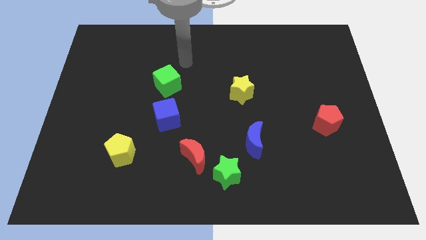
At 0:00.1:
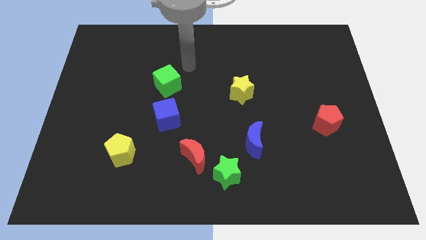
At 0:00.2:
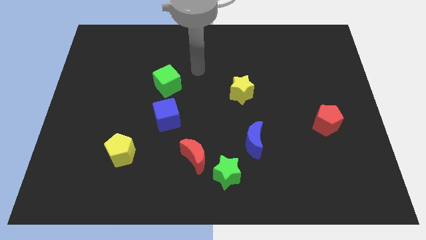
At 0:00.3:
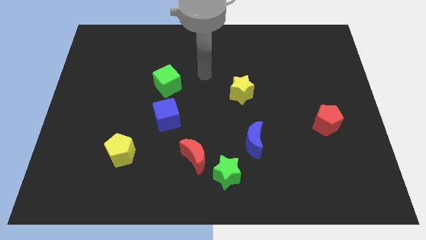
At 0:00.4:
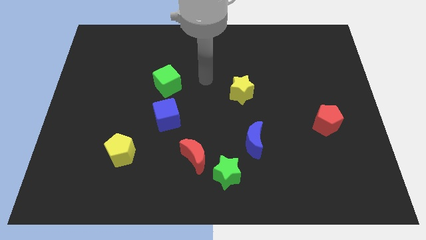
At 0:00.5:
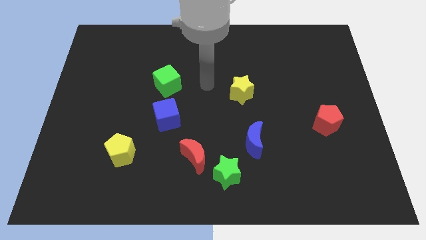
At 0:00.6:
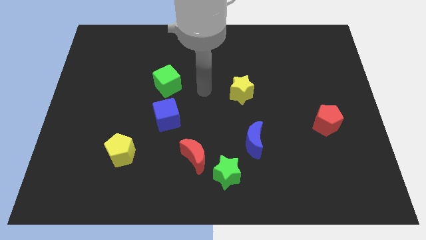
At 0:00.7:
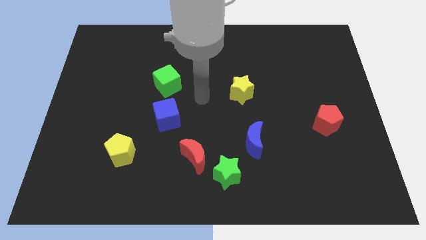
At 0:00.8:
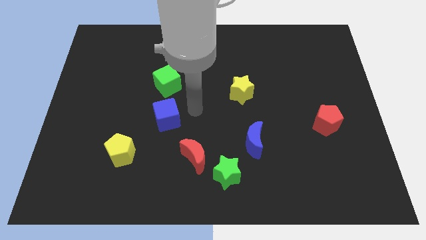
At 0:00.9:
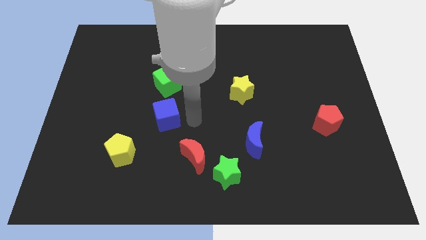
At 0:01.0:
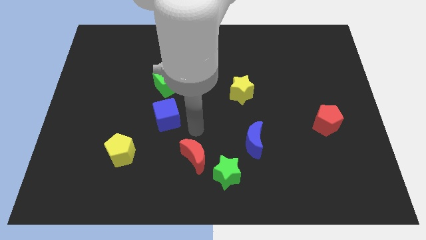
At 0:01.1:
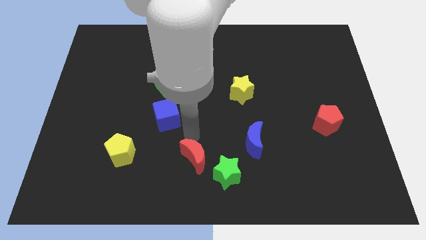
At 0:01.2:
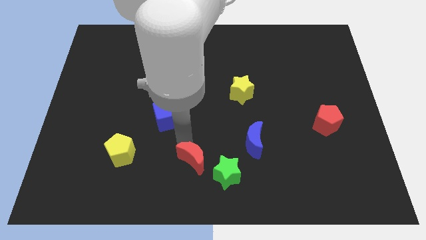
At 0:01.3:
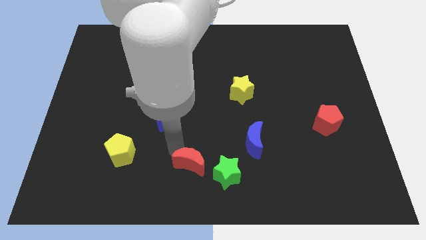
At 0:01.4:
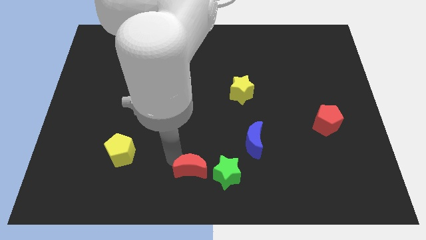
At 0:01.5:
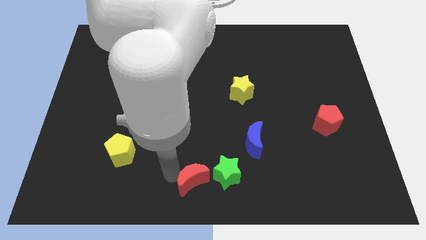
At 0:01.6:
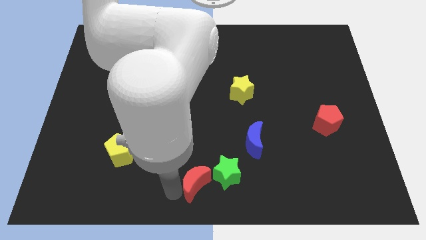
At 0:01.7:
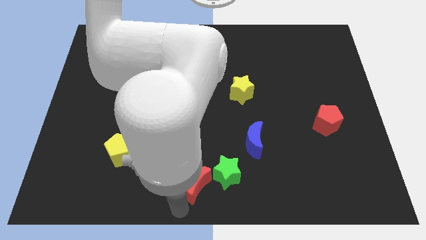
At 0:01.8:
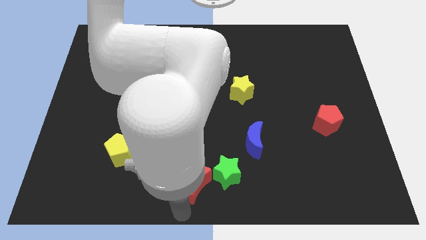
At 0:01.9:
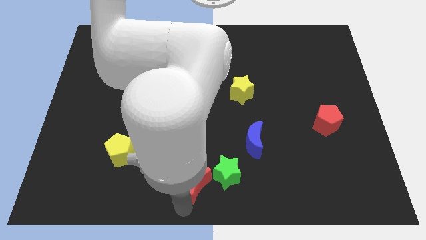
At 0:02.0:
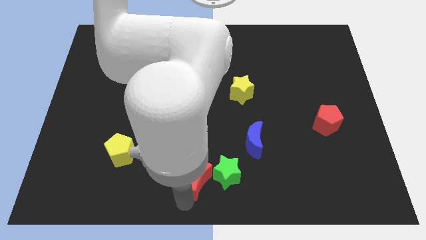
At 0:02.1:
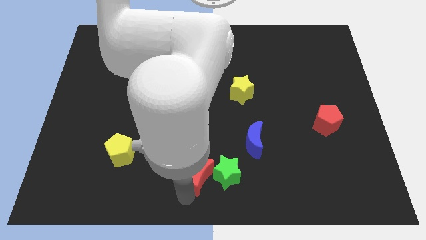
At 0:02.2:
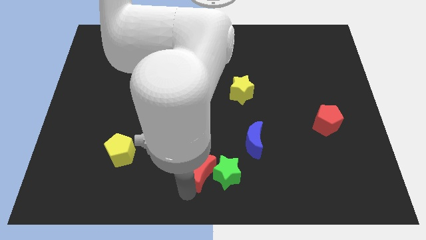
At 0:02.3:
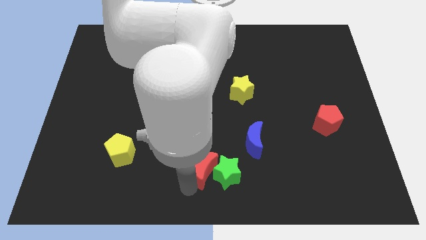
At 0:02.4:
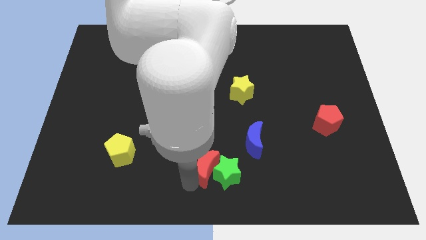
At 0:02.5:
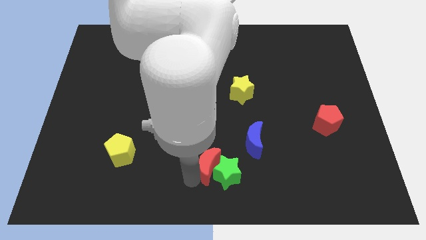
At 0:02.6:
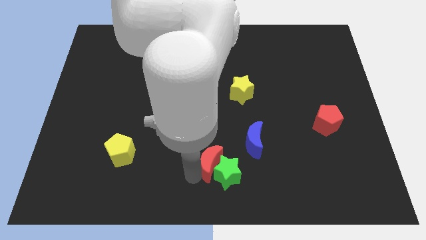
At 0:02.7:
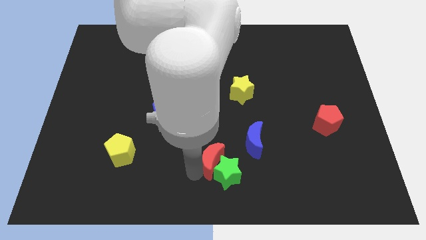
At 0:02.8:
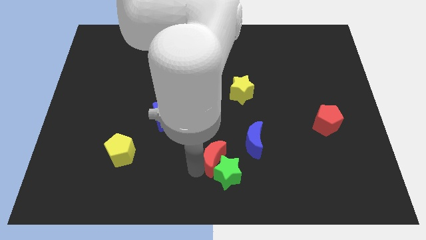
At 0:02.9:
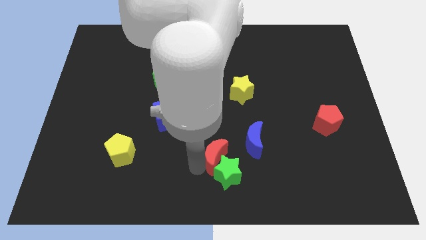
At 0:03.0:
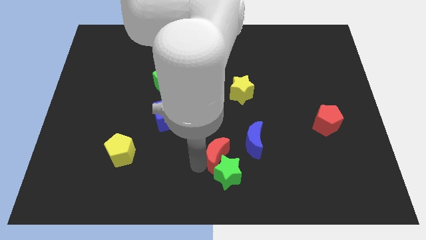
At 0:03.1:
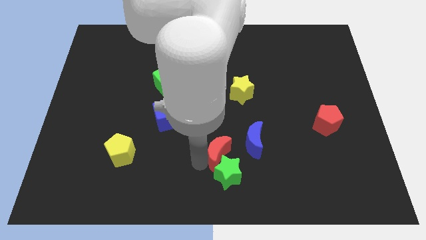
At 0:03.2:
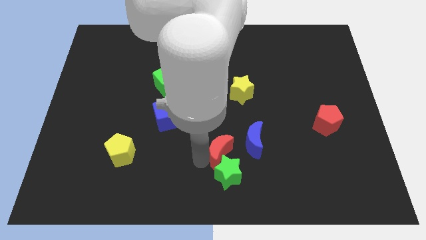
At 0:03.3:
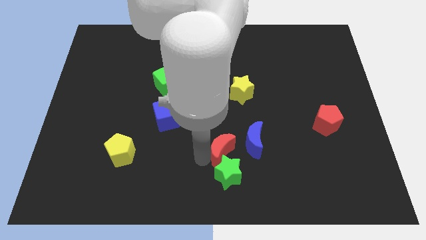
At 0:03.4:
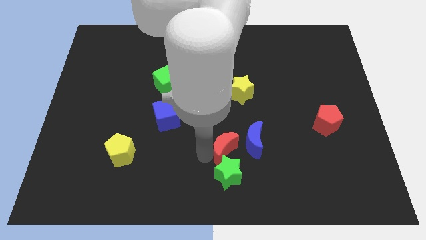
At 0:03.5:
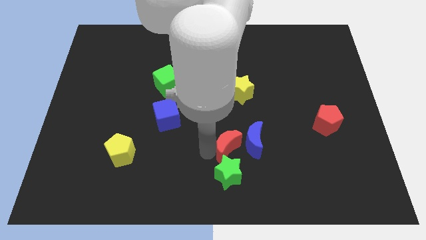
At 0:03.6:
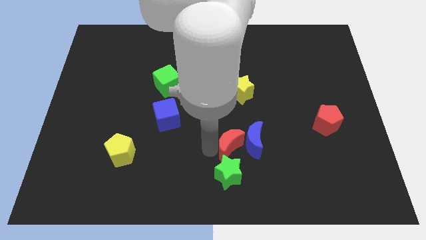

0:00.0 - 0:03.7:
push the red moon a little bit upwards and right diagonally

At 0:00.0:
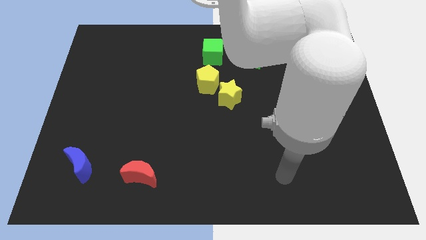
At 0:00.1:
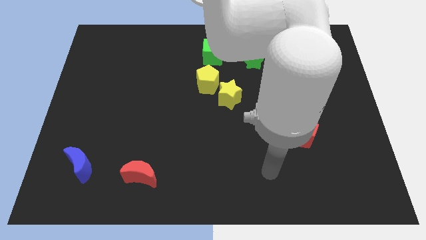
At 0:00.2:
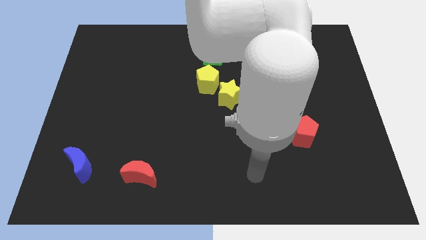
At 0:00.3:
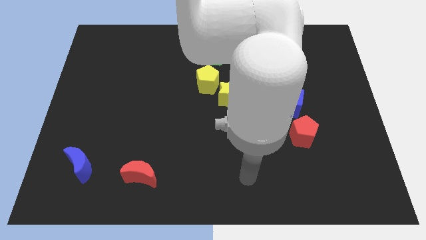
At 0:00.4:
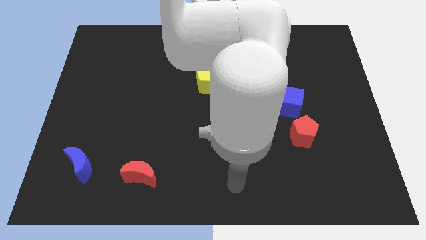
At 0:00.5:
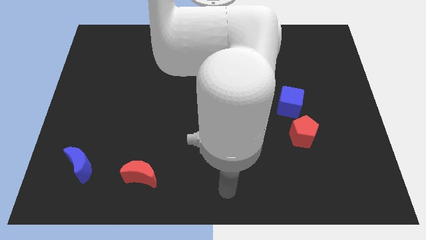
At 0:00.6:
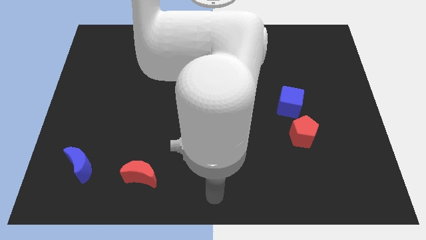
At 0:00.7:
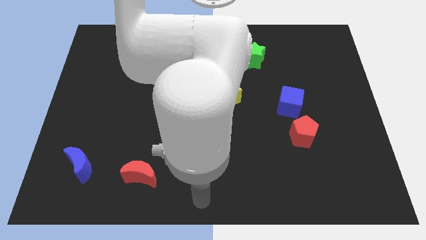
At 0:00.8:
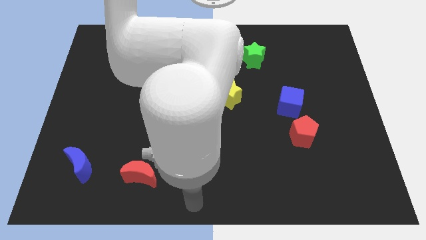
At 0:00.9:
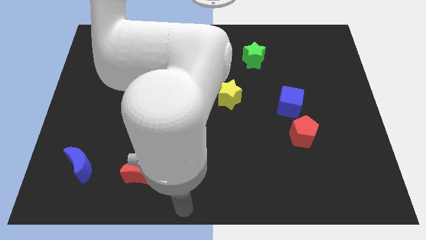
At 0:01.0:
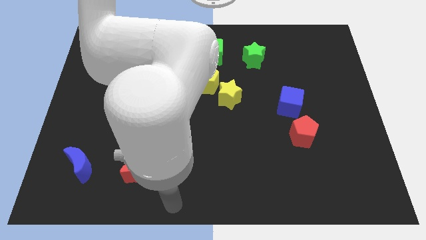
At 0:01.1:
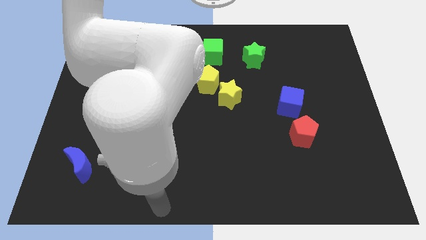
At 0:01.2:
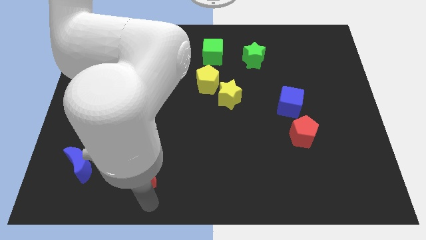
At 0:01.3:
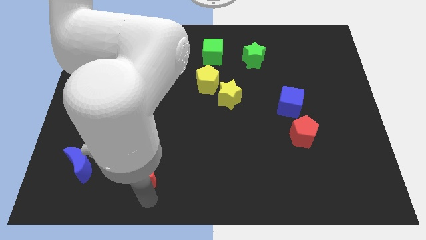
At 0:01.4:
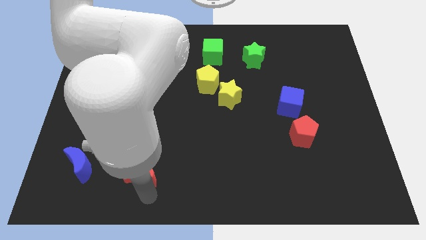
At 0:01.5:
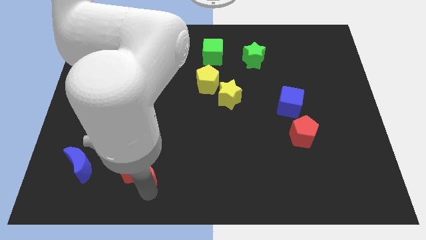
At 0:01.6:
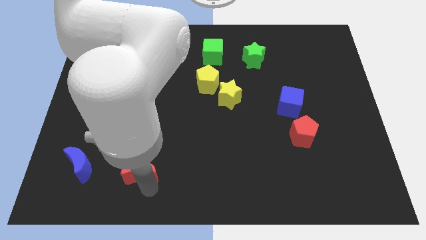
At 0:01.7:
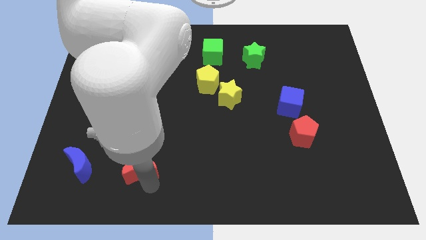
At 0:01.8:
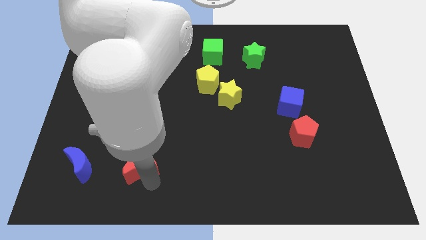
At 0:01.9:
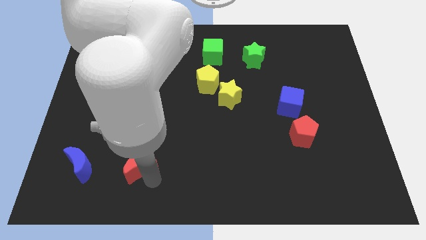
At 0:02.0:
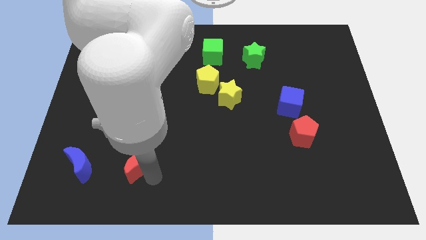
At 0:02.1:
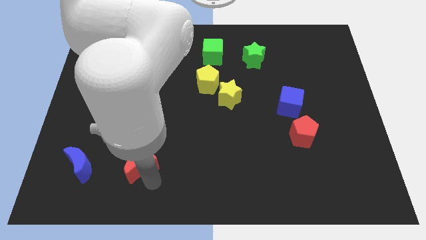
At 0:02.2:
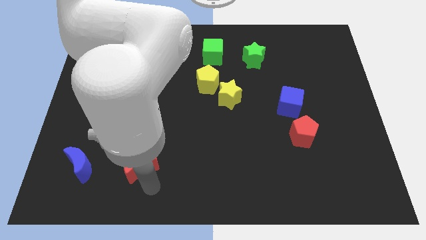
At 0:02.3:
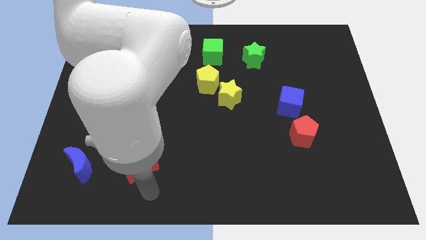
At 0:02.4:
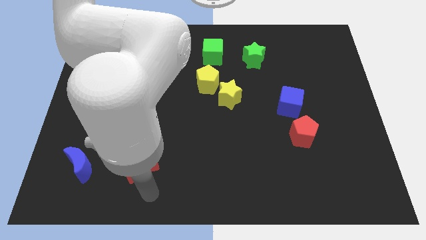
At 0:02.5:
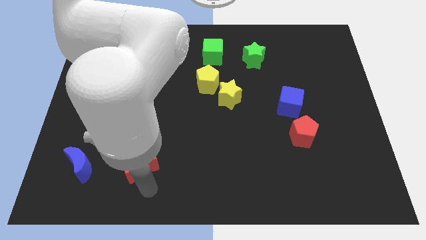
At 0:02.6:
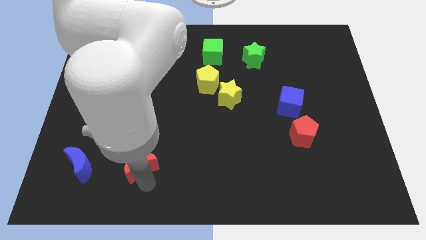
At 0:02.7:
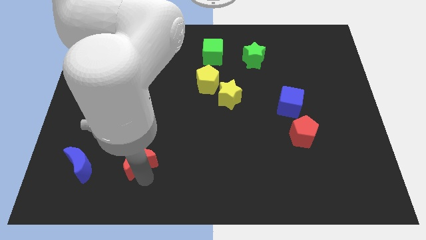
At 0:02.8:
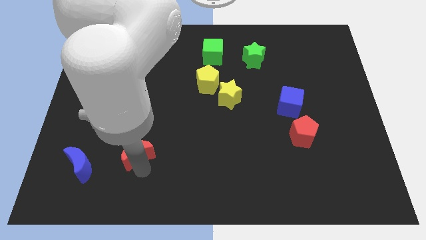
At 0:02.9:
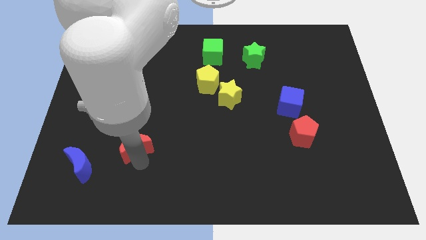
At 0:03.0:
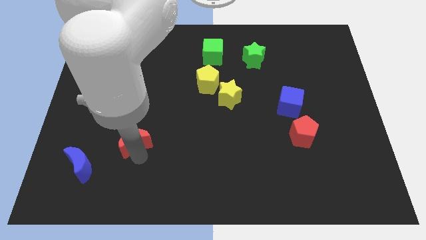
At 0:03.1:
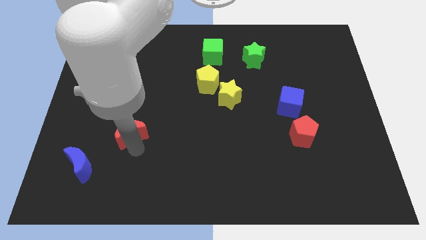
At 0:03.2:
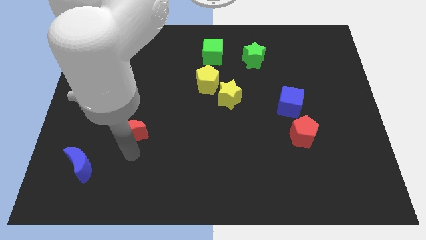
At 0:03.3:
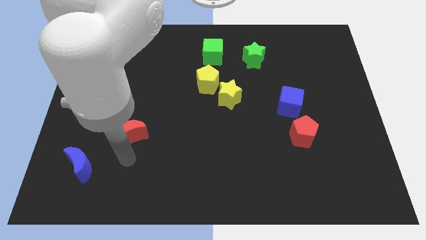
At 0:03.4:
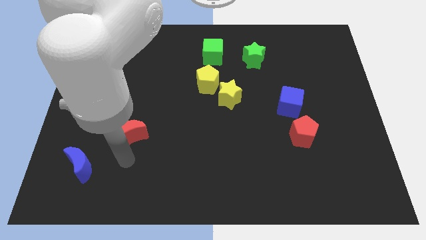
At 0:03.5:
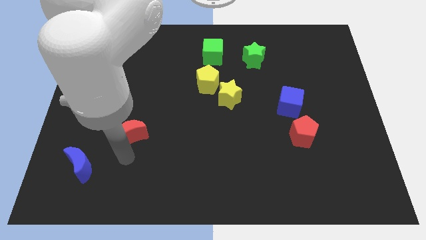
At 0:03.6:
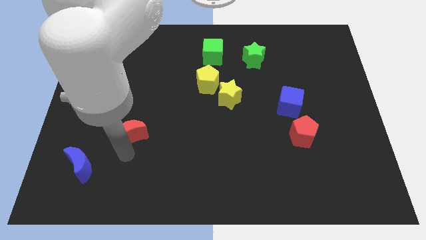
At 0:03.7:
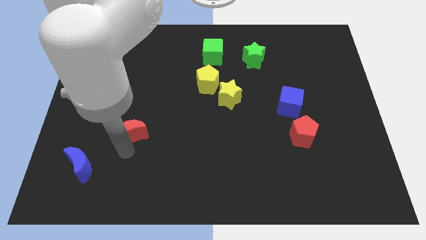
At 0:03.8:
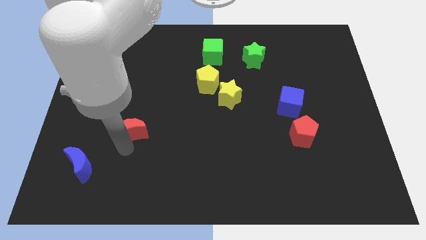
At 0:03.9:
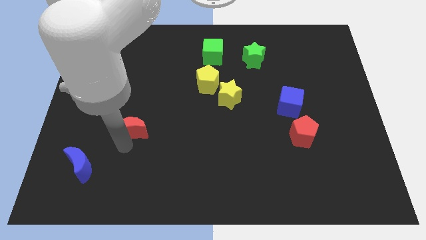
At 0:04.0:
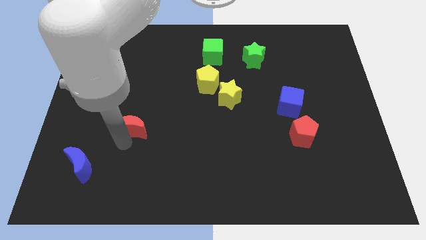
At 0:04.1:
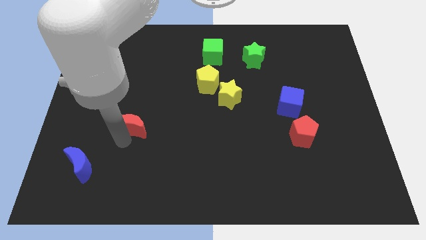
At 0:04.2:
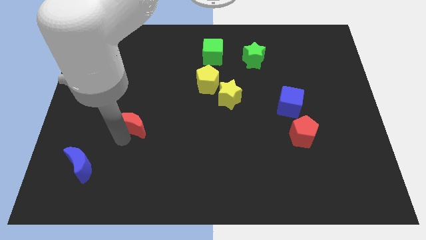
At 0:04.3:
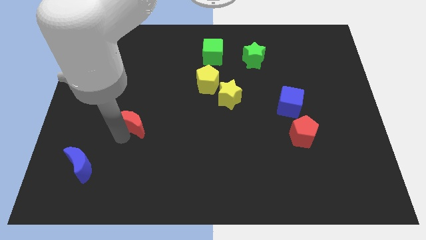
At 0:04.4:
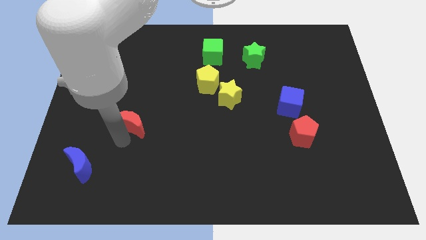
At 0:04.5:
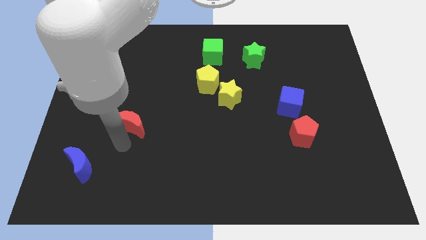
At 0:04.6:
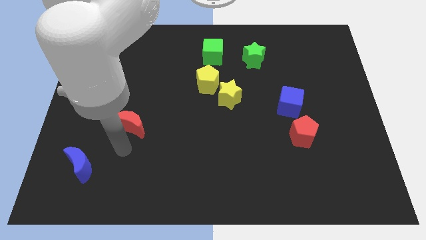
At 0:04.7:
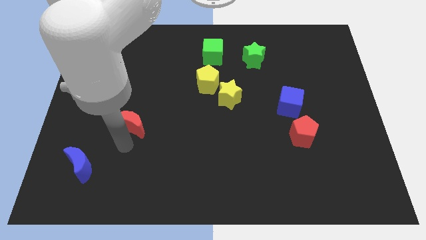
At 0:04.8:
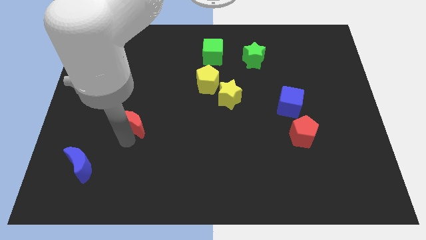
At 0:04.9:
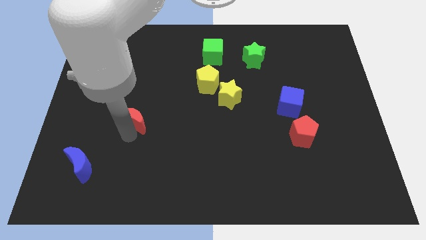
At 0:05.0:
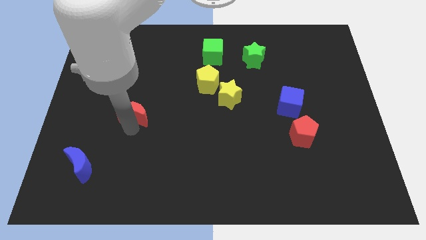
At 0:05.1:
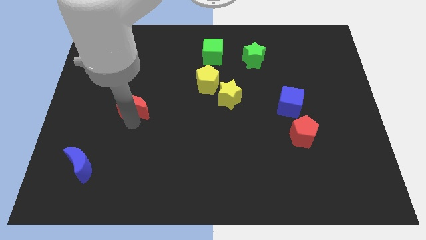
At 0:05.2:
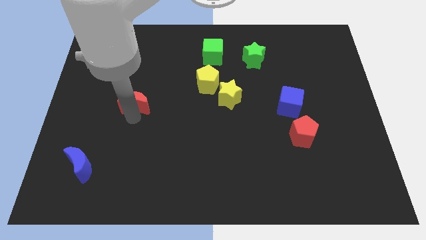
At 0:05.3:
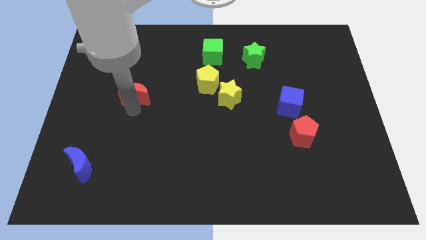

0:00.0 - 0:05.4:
push the red moon upwards
